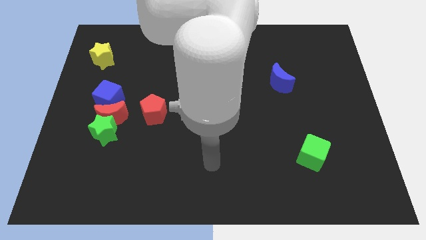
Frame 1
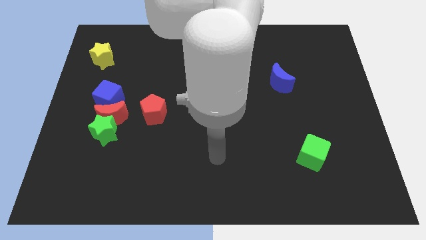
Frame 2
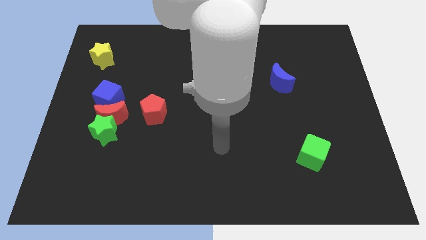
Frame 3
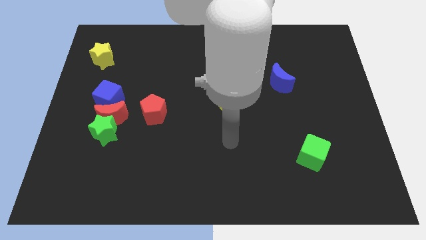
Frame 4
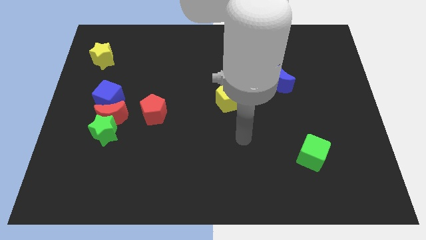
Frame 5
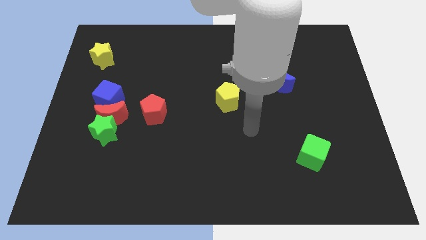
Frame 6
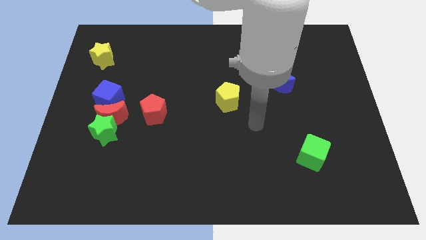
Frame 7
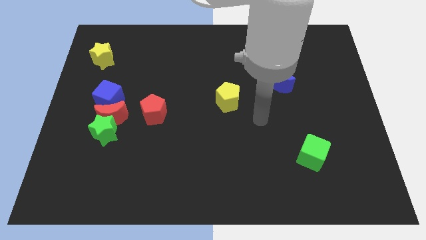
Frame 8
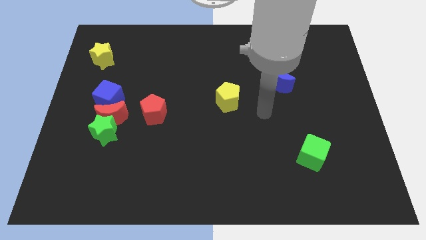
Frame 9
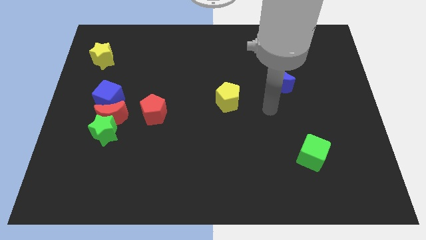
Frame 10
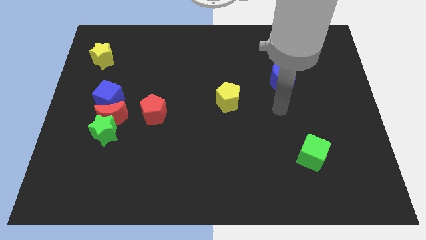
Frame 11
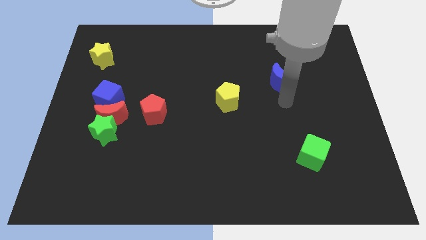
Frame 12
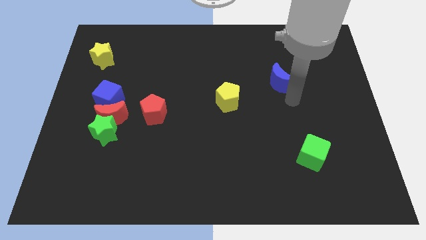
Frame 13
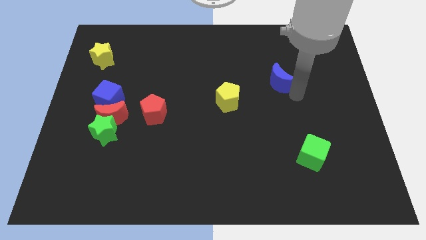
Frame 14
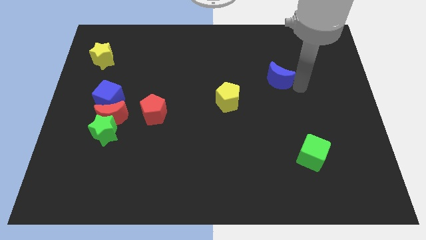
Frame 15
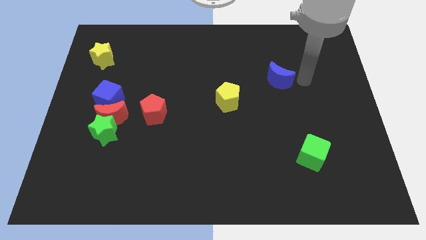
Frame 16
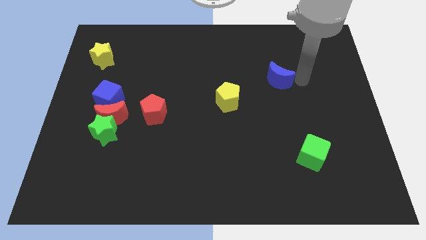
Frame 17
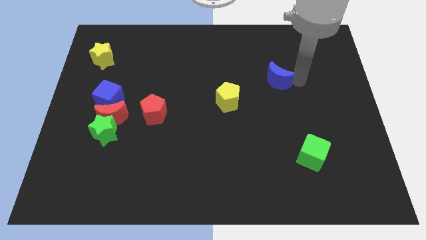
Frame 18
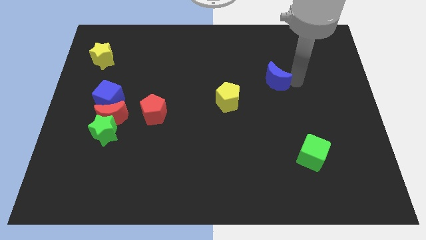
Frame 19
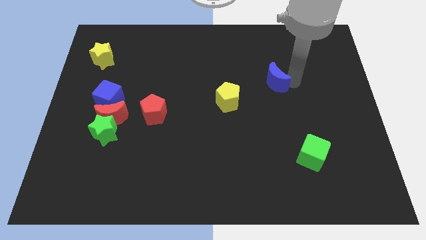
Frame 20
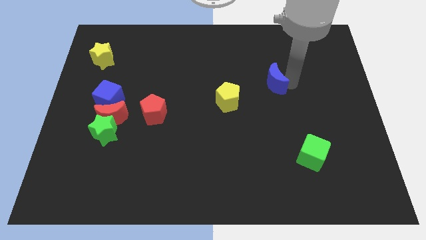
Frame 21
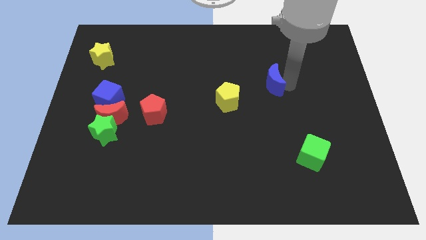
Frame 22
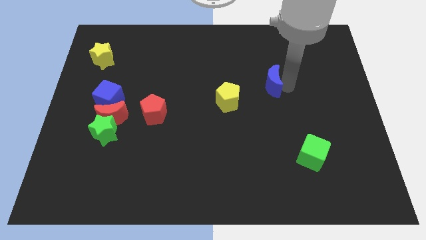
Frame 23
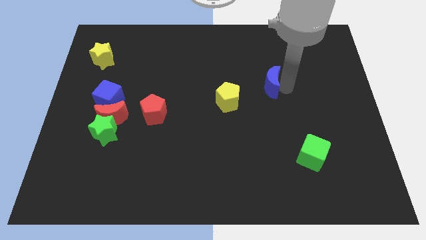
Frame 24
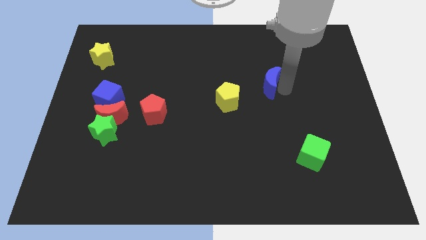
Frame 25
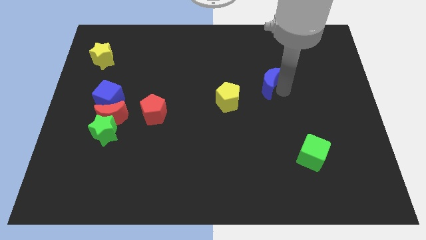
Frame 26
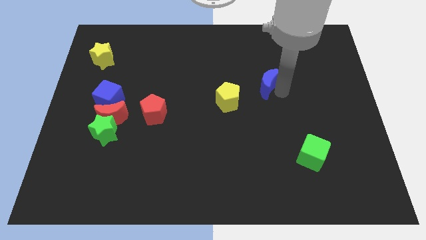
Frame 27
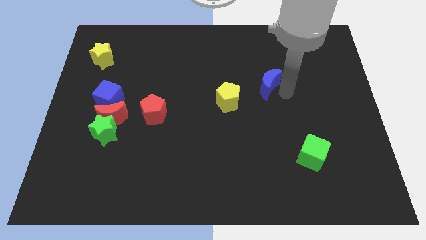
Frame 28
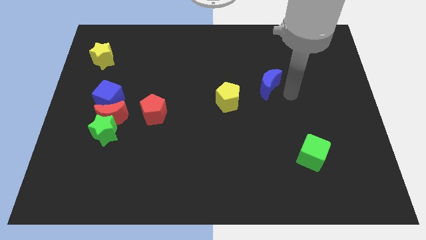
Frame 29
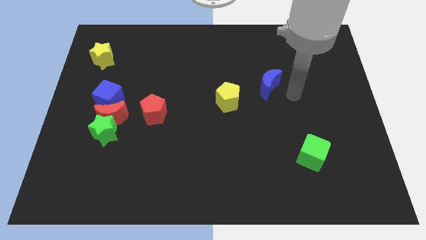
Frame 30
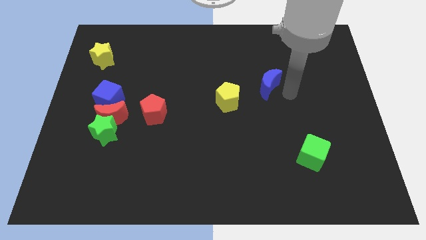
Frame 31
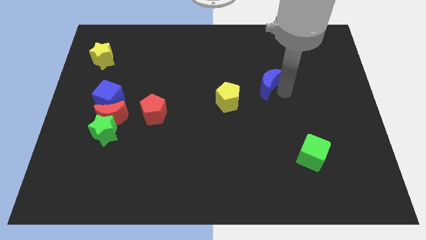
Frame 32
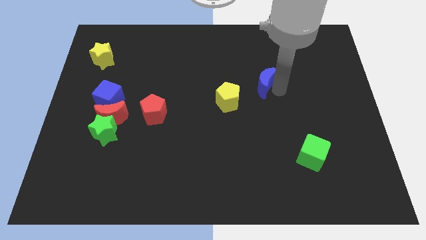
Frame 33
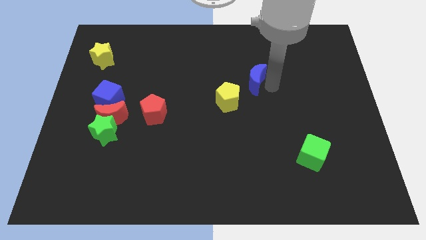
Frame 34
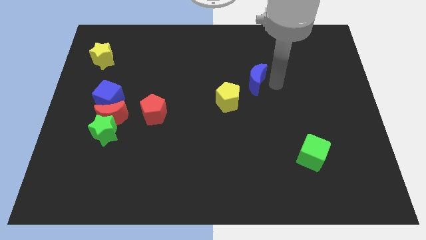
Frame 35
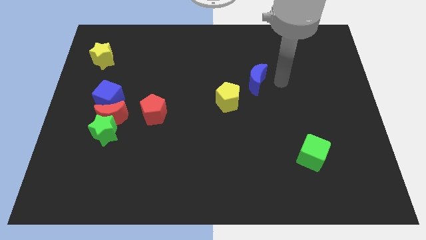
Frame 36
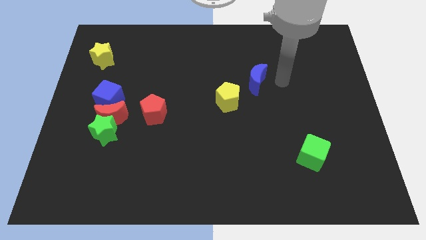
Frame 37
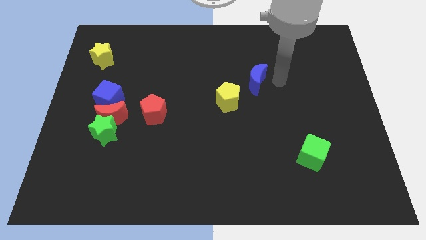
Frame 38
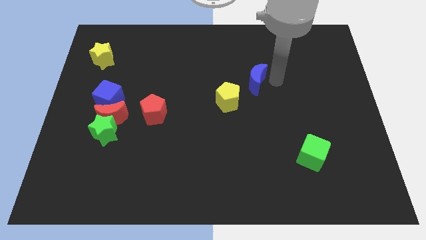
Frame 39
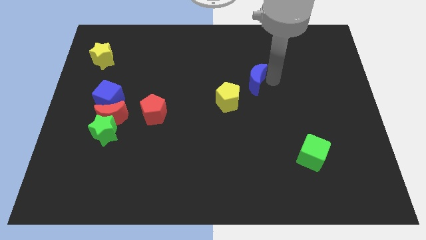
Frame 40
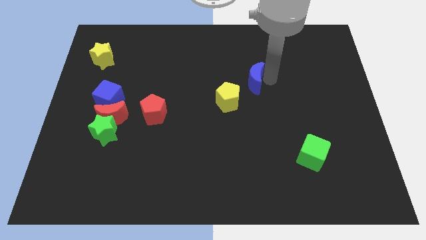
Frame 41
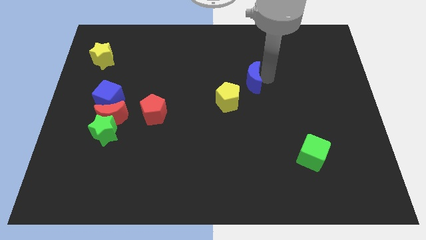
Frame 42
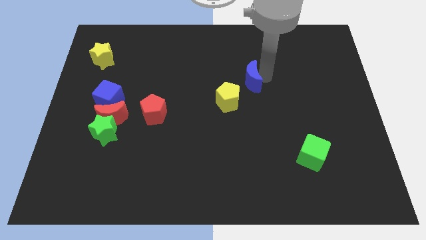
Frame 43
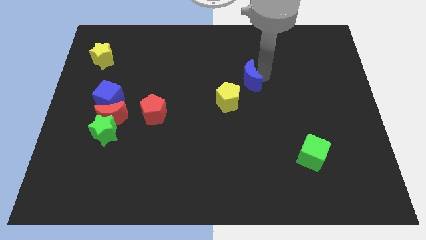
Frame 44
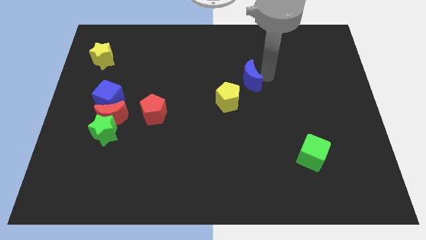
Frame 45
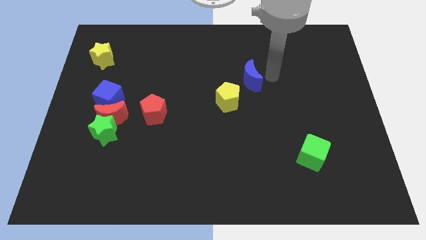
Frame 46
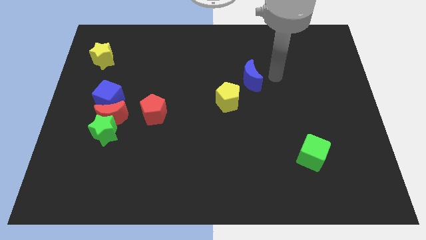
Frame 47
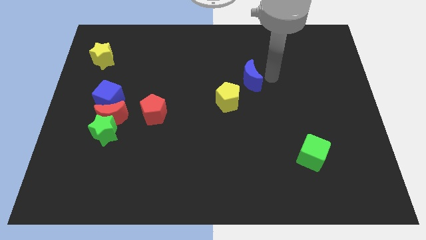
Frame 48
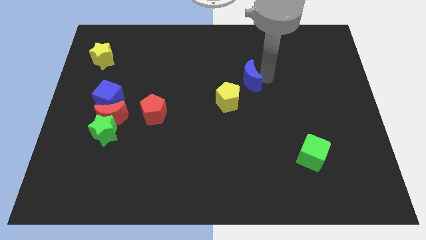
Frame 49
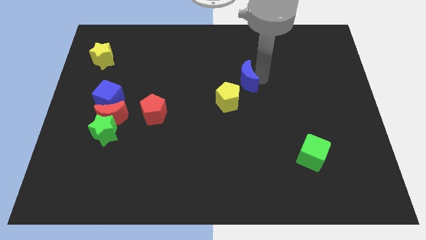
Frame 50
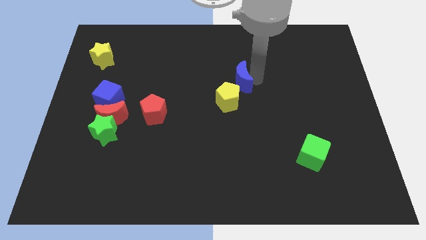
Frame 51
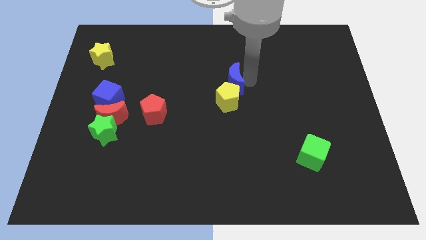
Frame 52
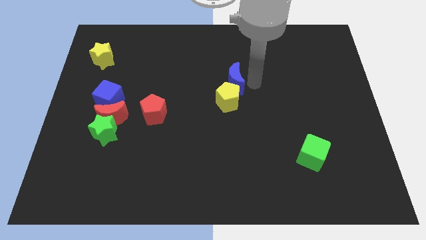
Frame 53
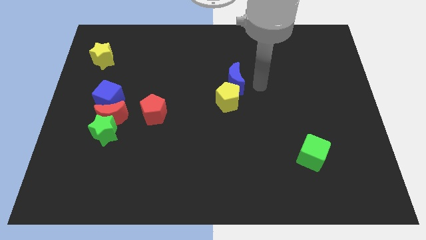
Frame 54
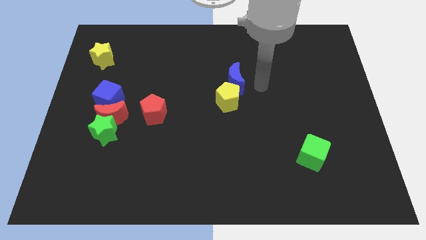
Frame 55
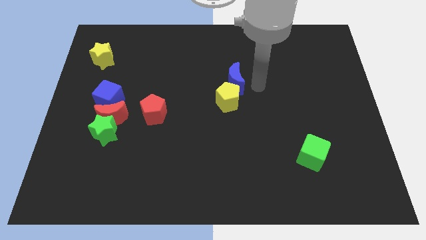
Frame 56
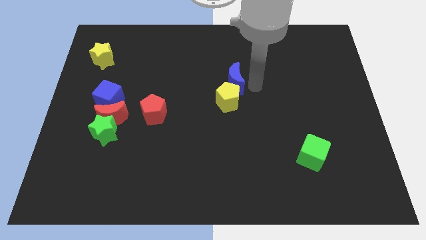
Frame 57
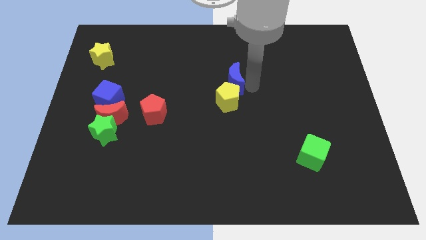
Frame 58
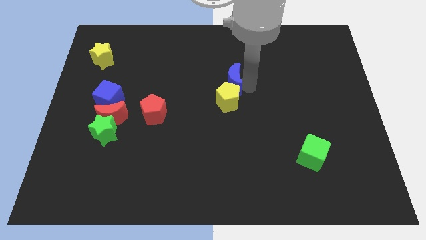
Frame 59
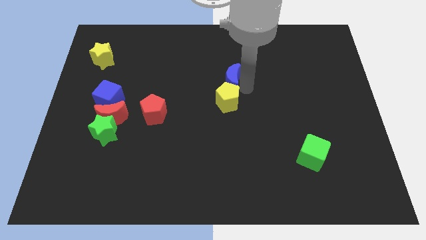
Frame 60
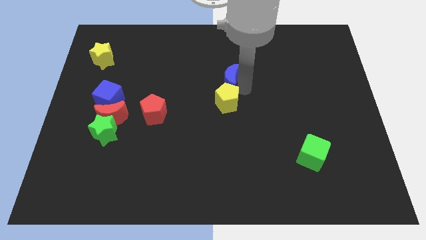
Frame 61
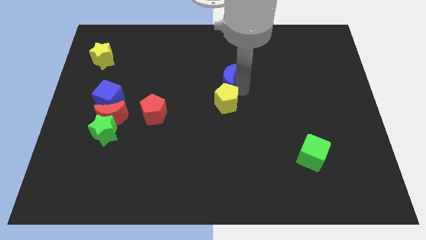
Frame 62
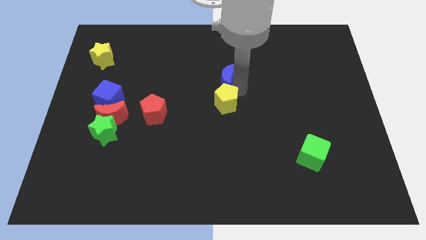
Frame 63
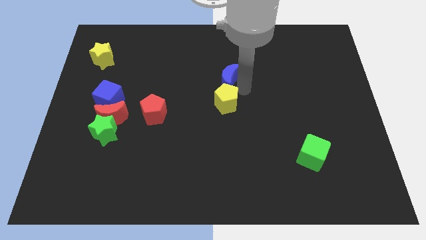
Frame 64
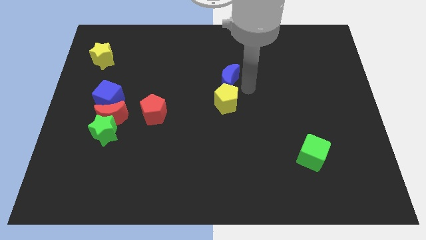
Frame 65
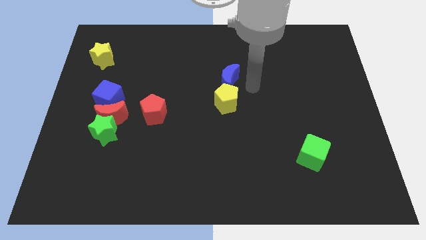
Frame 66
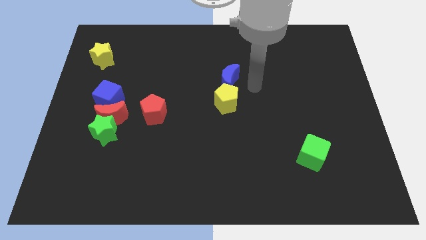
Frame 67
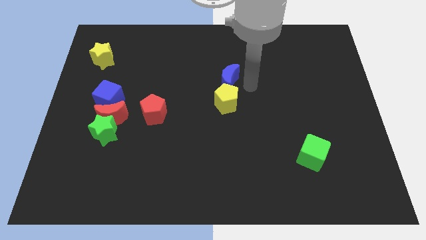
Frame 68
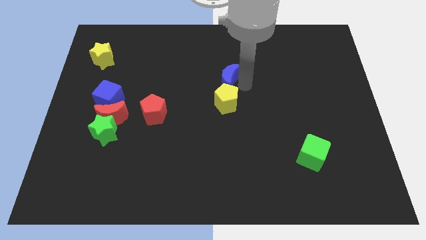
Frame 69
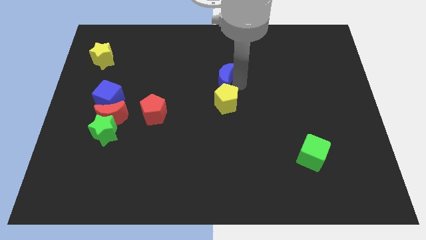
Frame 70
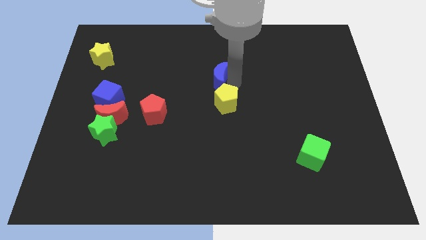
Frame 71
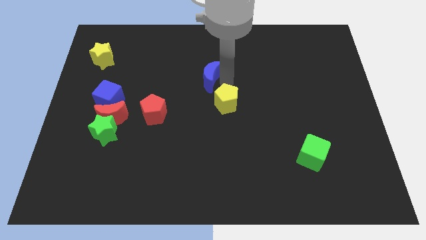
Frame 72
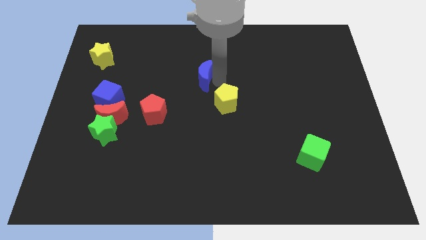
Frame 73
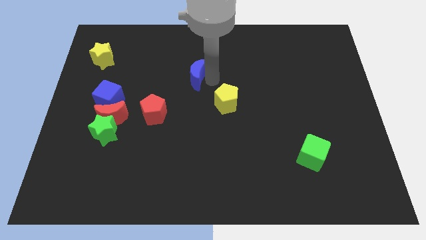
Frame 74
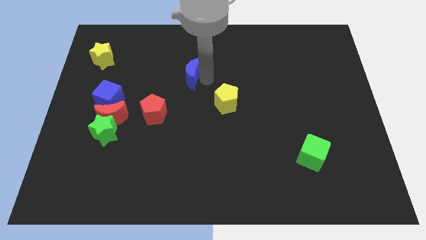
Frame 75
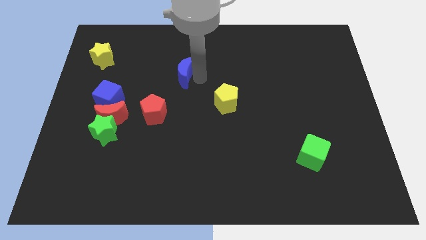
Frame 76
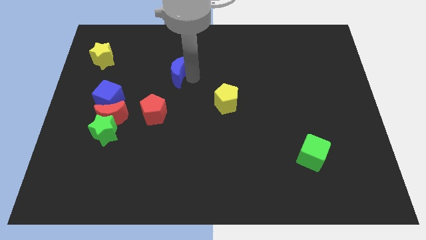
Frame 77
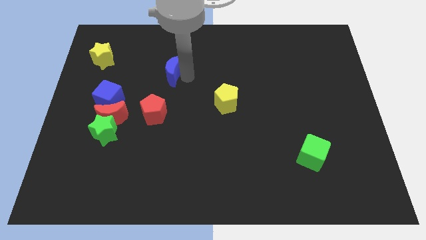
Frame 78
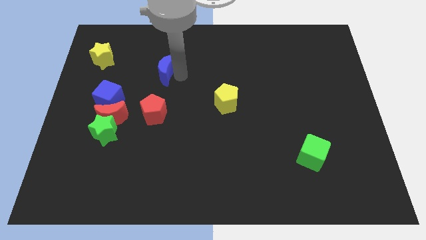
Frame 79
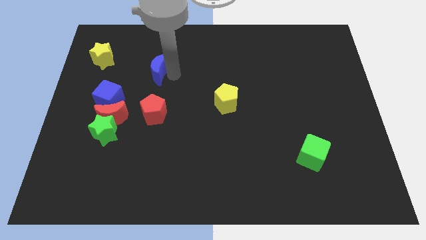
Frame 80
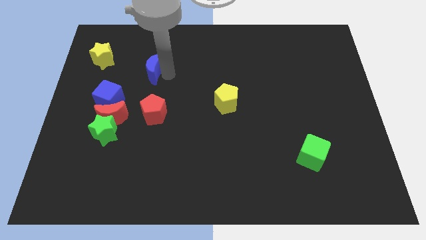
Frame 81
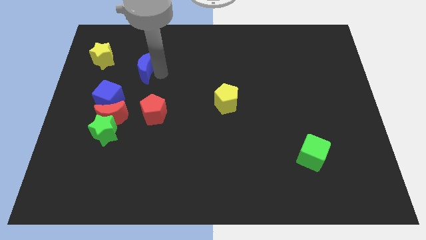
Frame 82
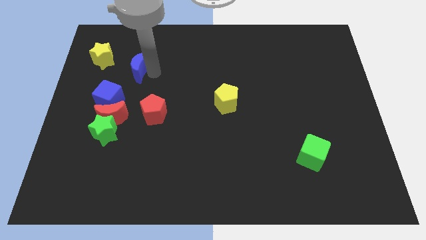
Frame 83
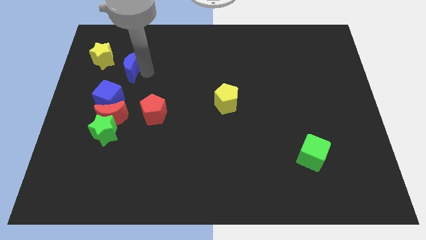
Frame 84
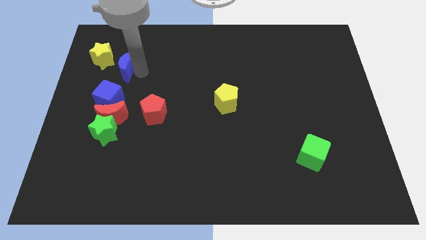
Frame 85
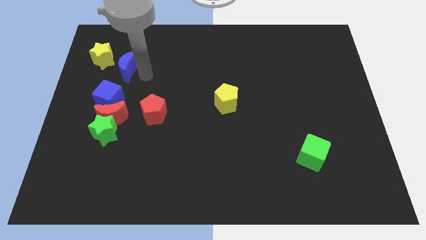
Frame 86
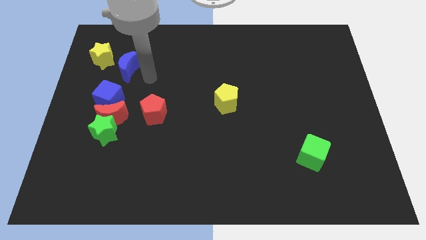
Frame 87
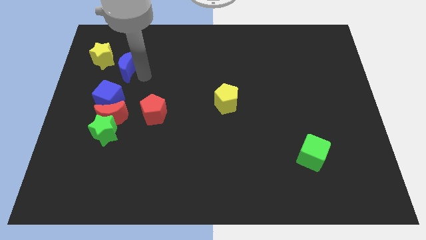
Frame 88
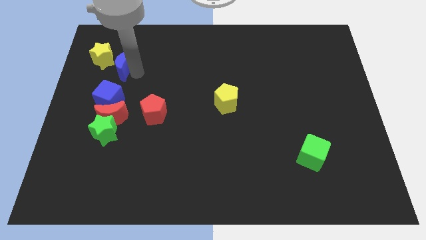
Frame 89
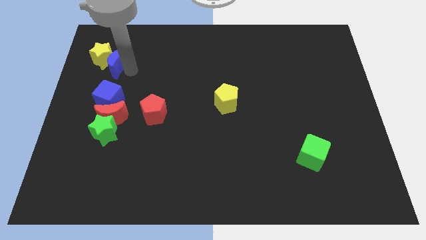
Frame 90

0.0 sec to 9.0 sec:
put the blue moon to the yellow star
